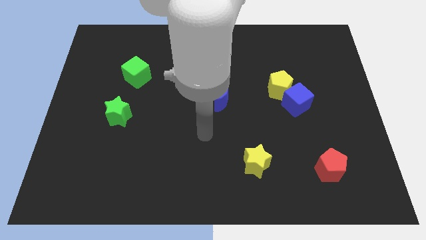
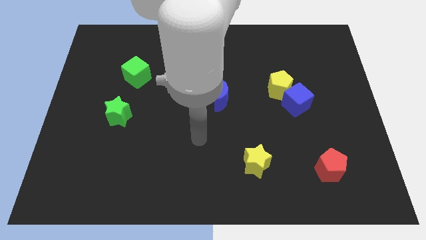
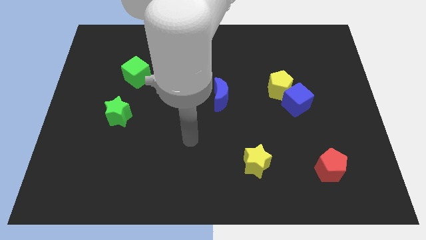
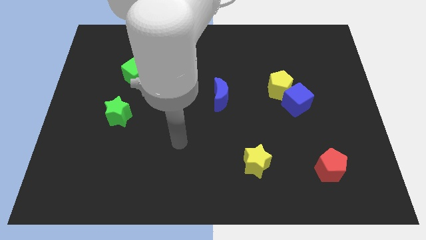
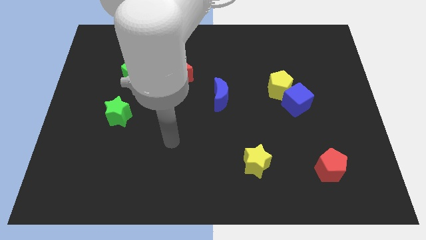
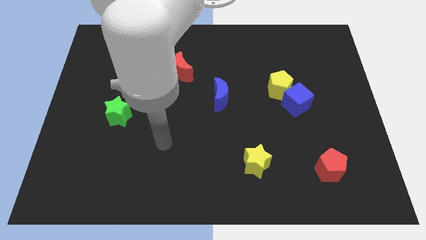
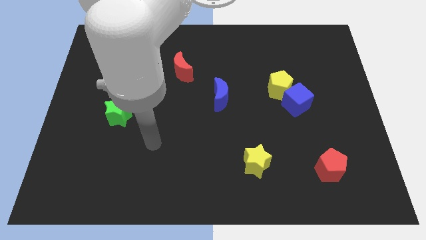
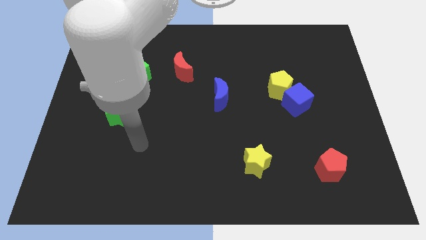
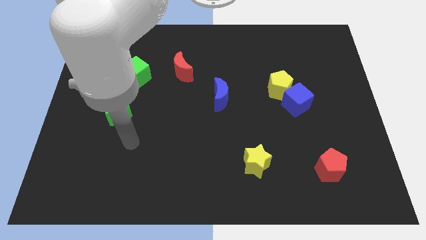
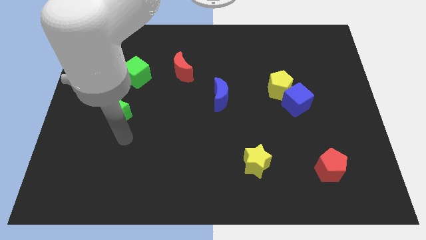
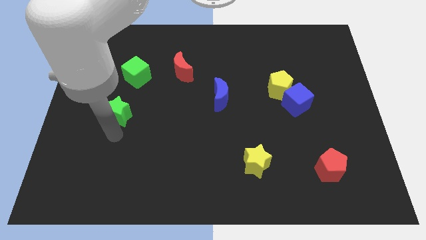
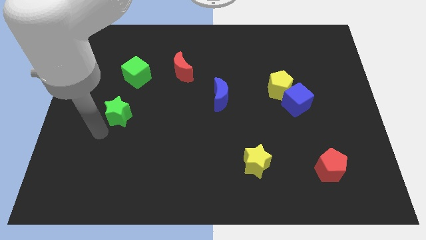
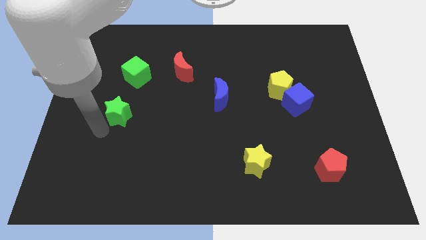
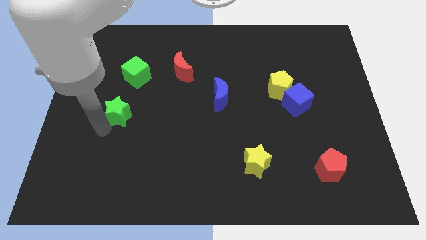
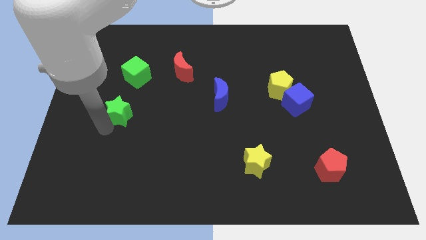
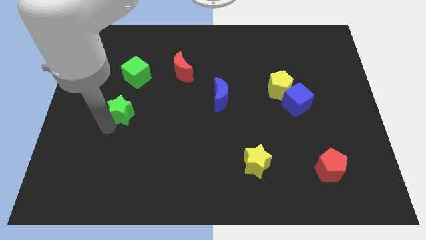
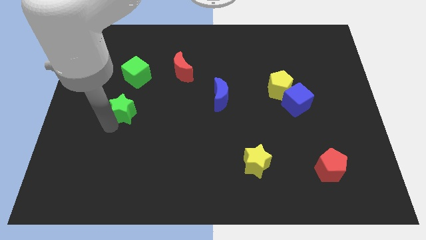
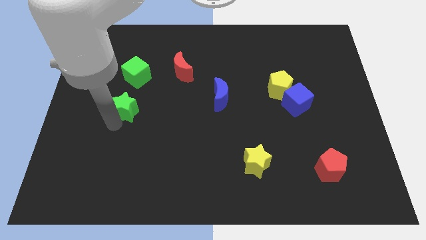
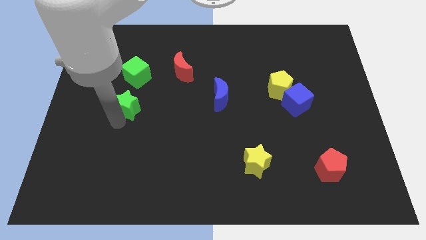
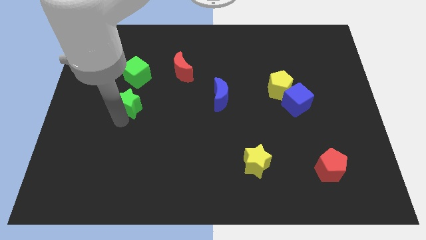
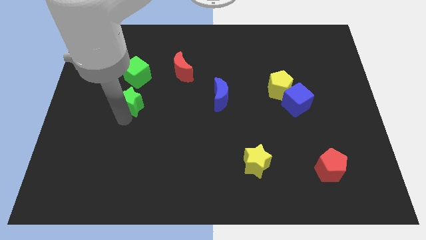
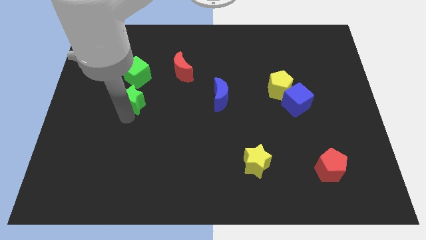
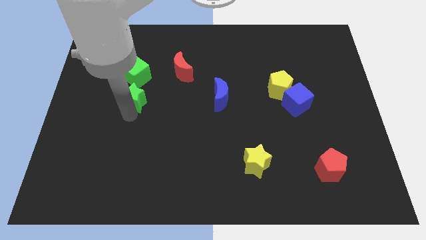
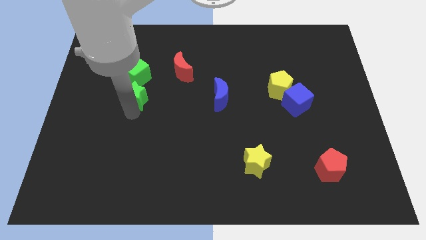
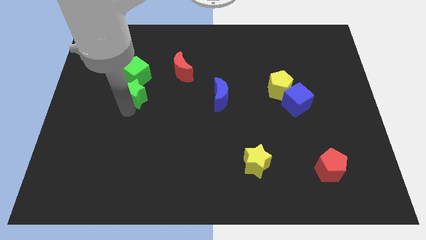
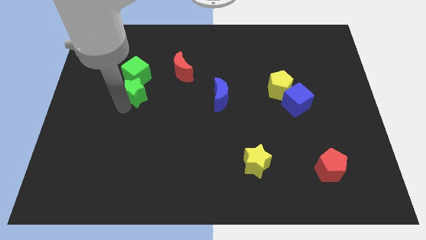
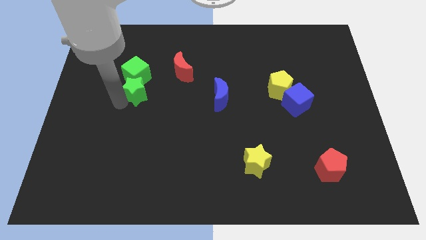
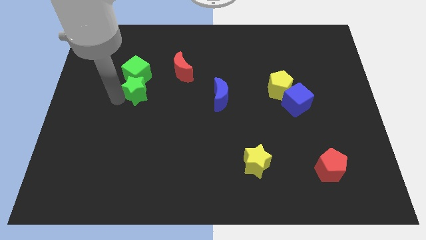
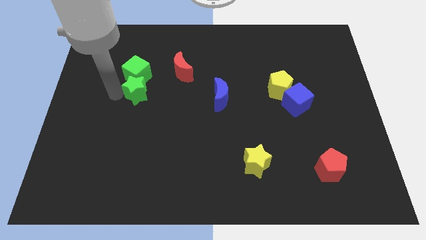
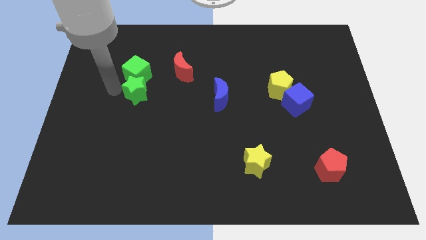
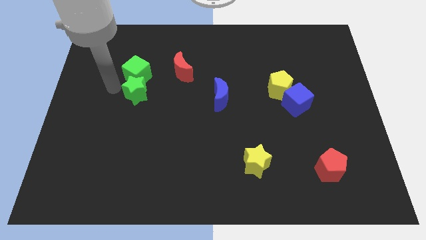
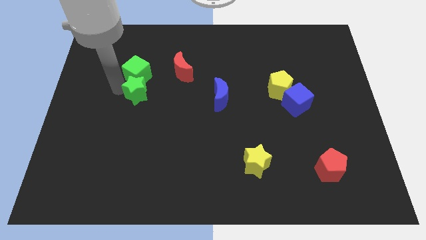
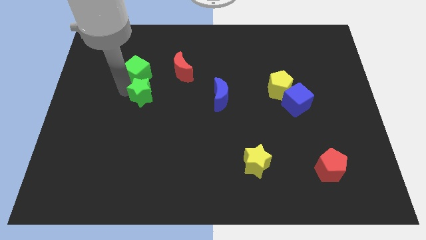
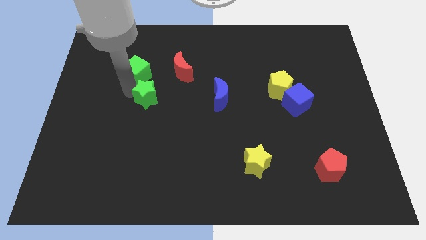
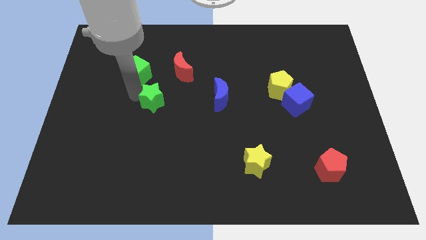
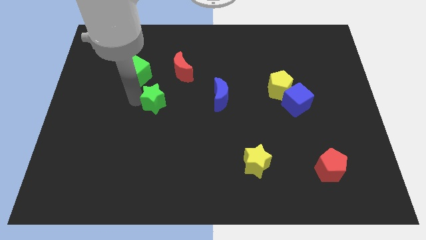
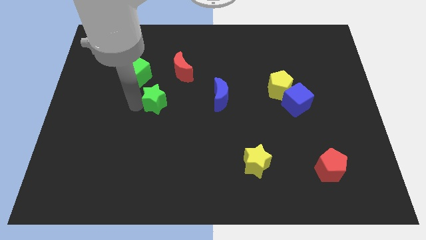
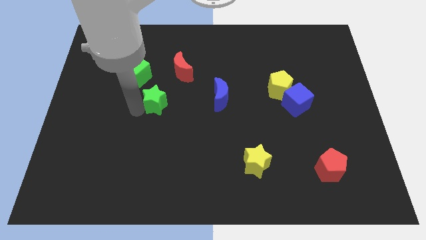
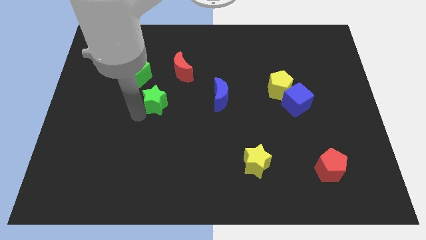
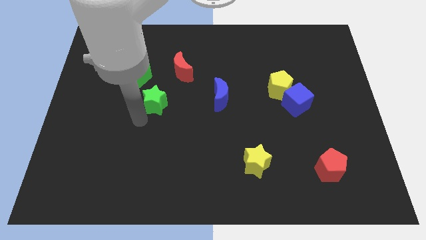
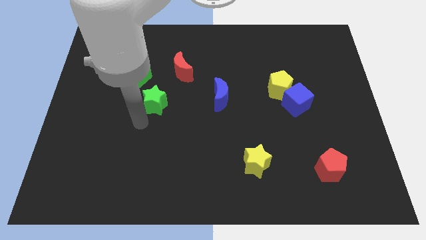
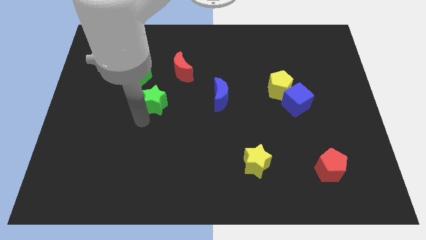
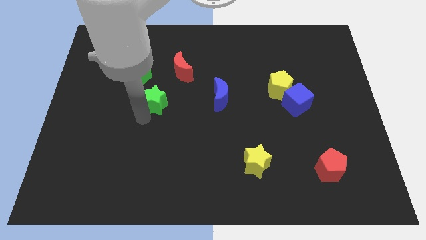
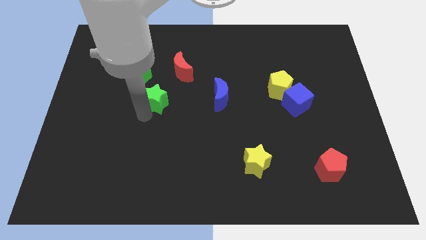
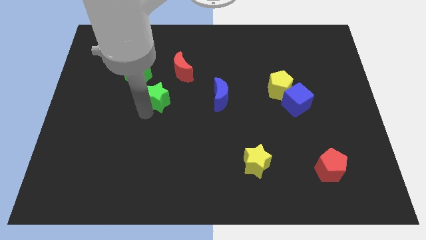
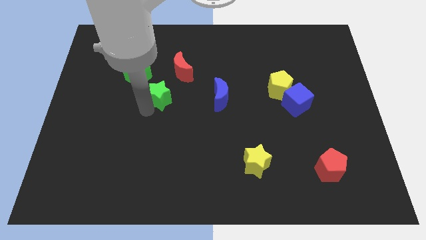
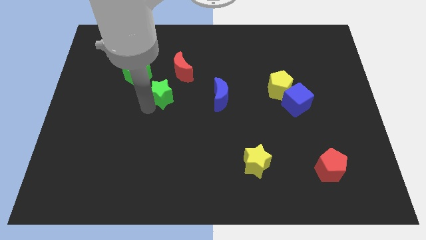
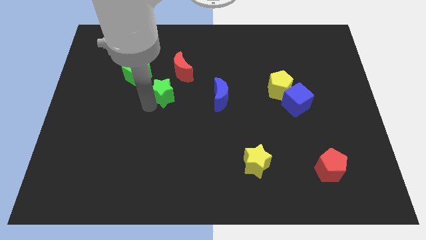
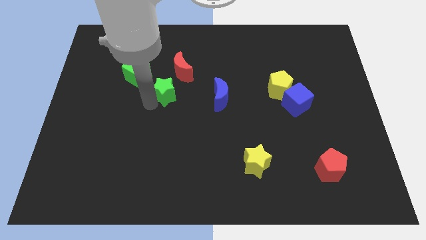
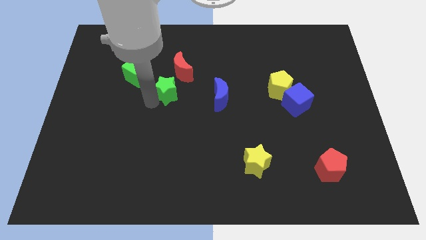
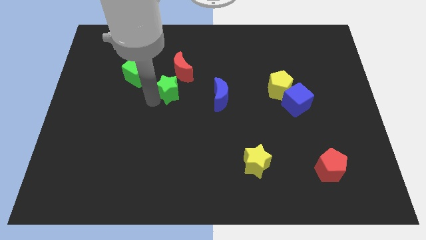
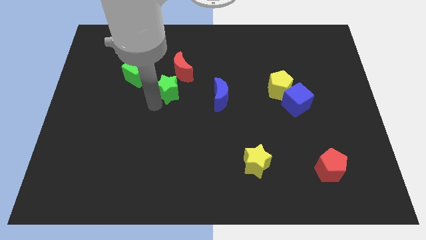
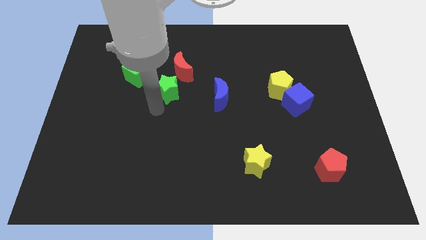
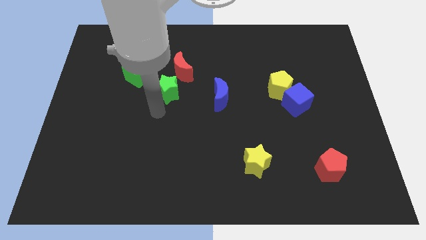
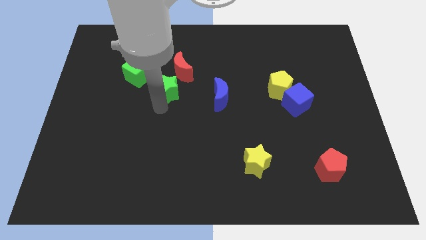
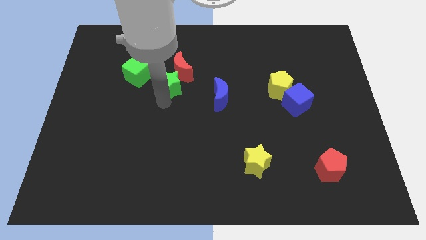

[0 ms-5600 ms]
slide the green star close to the red moon
